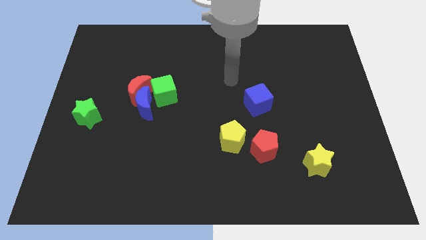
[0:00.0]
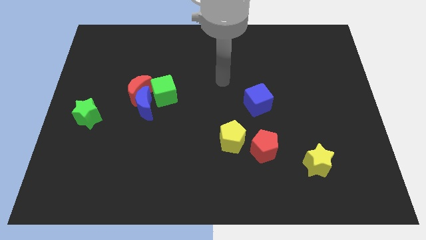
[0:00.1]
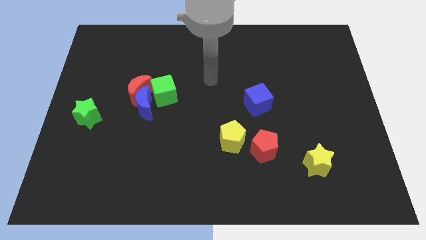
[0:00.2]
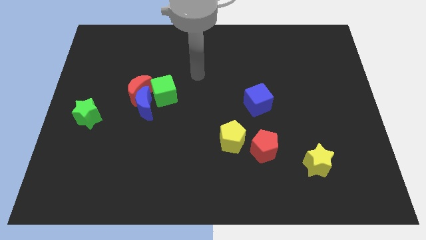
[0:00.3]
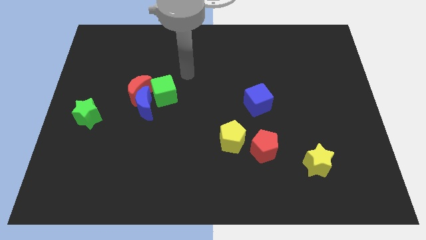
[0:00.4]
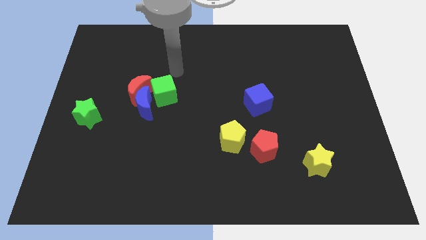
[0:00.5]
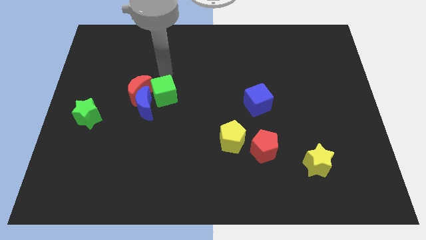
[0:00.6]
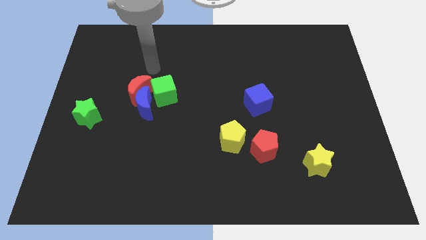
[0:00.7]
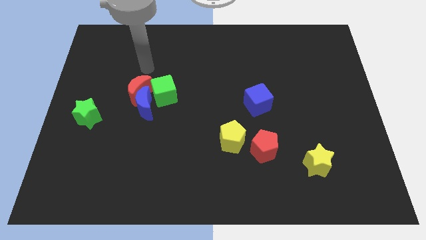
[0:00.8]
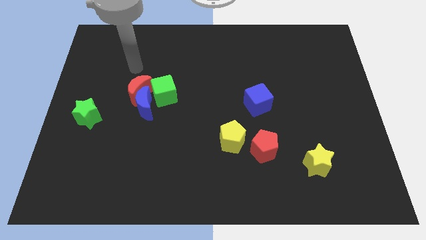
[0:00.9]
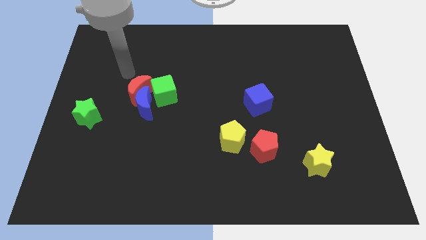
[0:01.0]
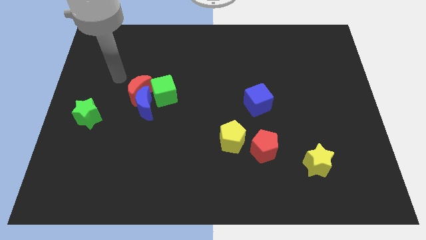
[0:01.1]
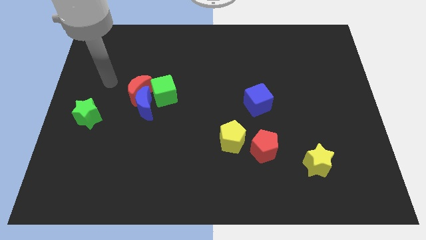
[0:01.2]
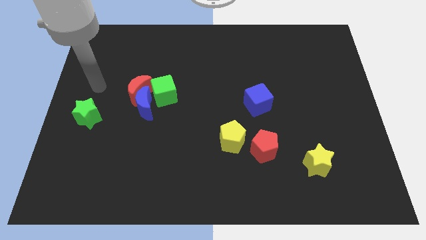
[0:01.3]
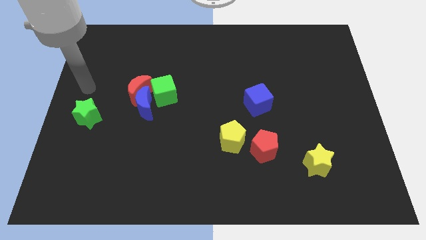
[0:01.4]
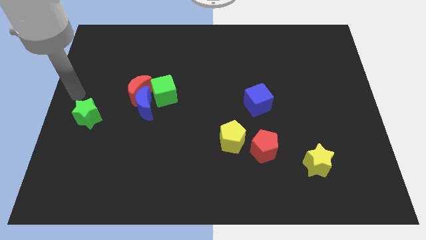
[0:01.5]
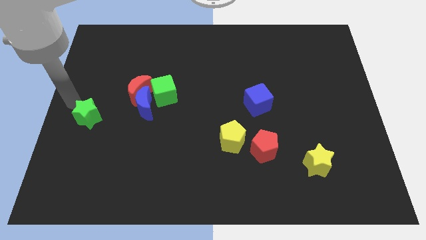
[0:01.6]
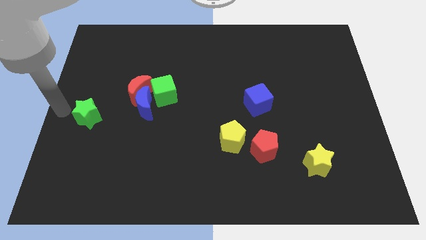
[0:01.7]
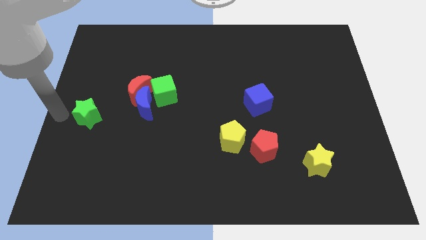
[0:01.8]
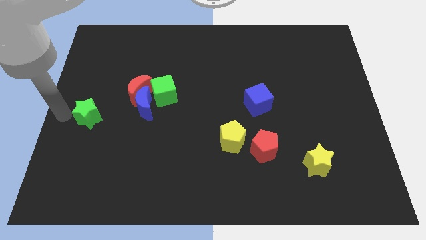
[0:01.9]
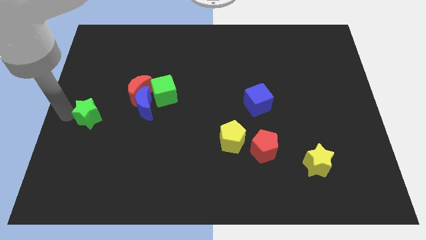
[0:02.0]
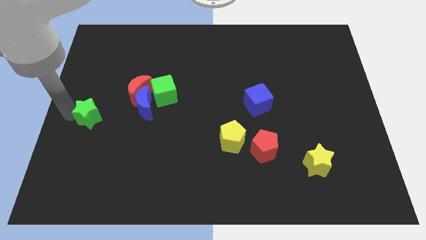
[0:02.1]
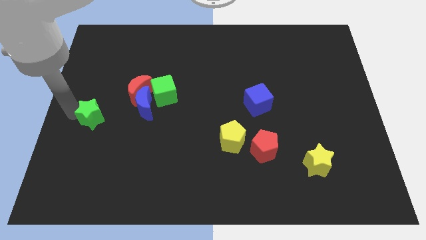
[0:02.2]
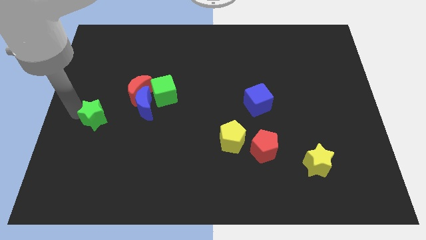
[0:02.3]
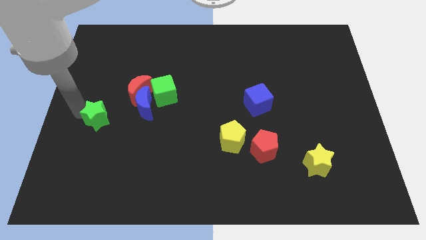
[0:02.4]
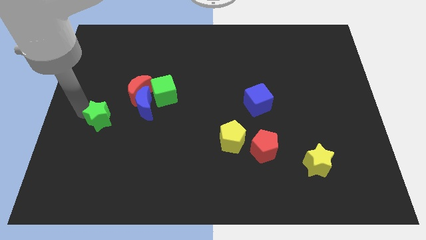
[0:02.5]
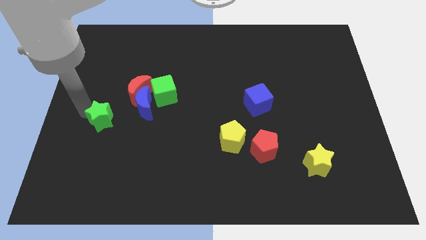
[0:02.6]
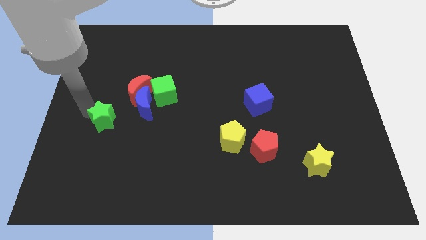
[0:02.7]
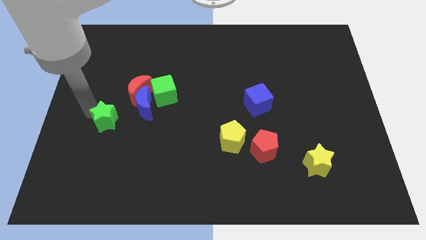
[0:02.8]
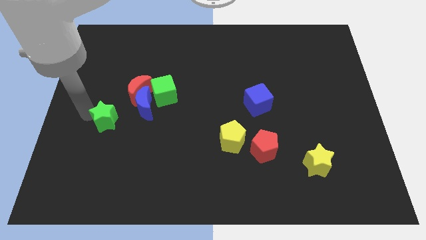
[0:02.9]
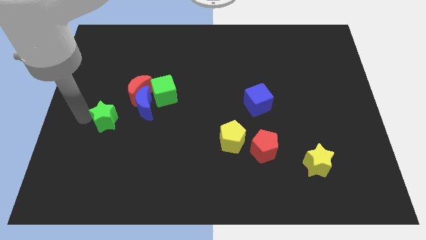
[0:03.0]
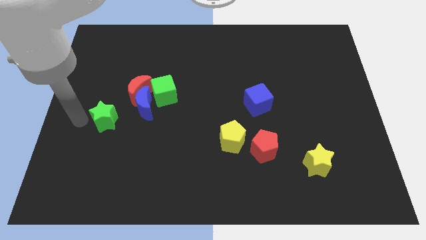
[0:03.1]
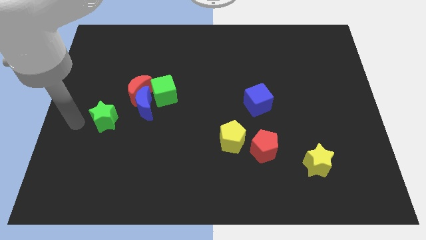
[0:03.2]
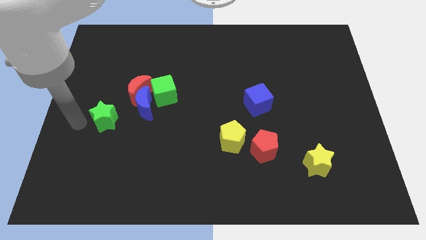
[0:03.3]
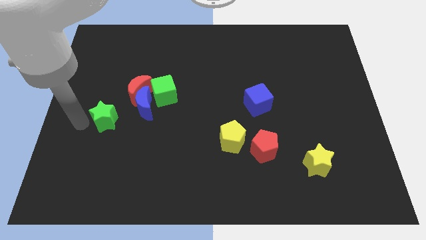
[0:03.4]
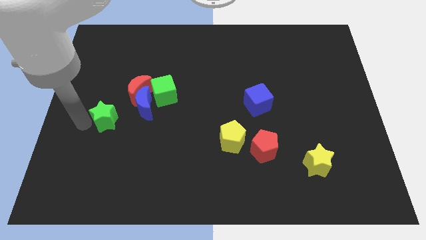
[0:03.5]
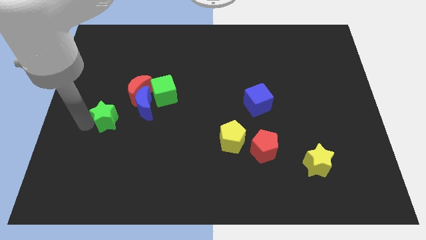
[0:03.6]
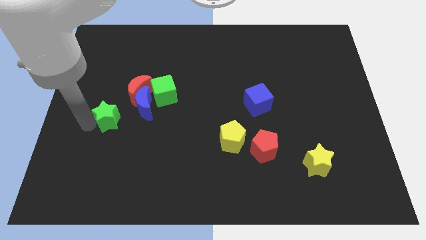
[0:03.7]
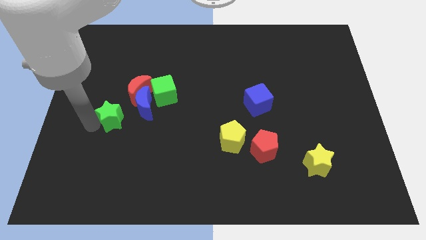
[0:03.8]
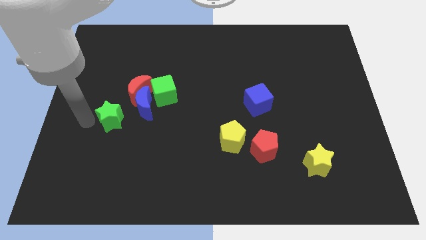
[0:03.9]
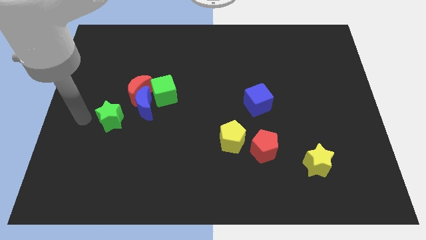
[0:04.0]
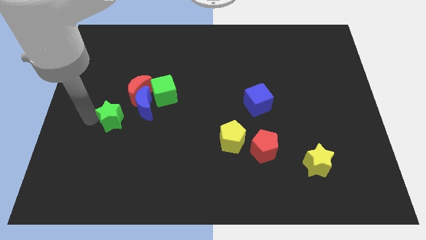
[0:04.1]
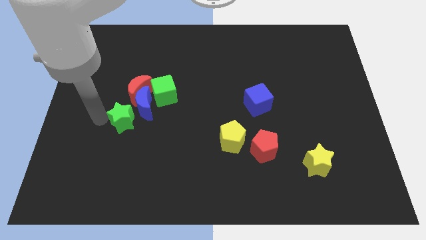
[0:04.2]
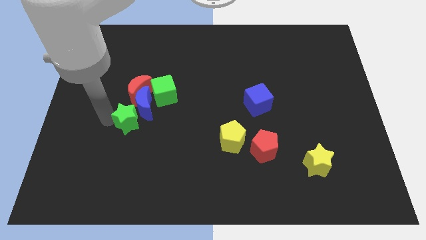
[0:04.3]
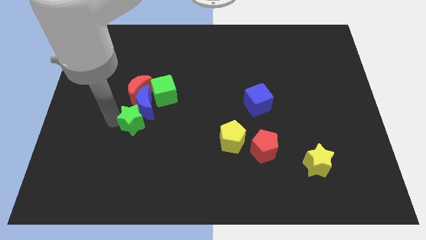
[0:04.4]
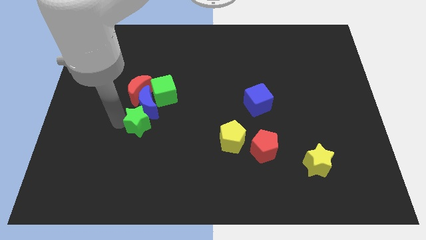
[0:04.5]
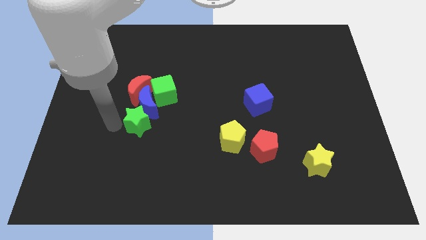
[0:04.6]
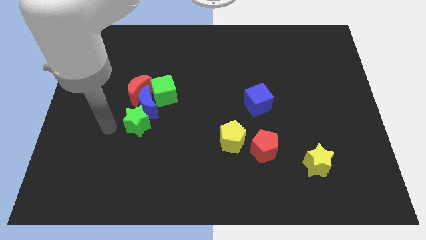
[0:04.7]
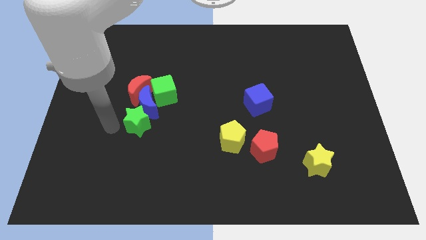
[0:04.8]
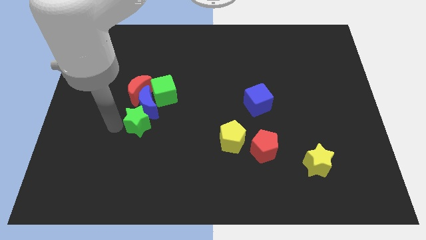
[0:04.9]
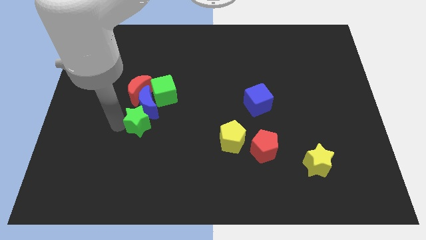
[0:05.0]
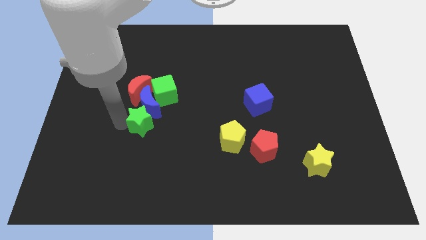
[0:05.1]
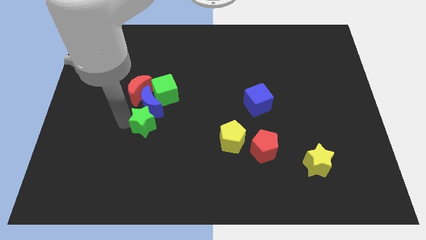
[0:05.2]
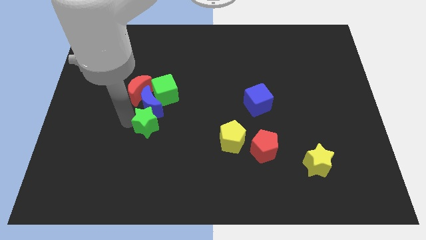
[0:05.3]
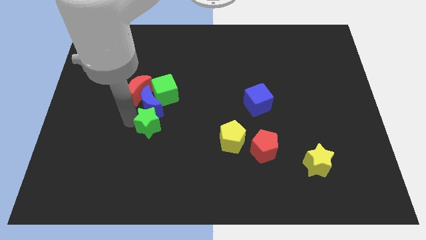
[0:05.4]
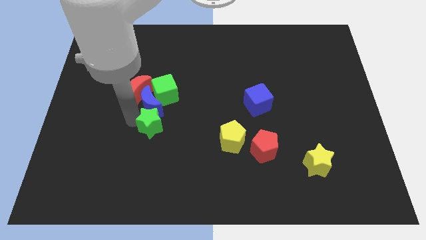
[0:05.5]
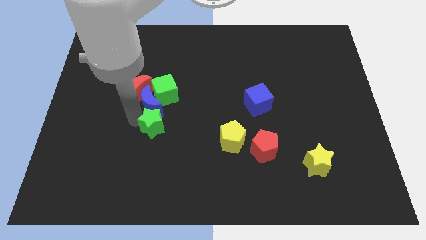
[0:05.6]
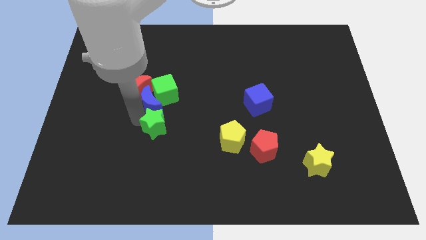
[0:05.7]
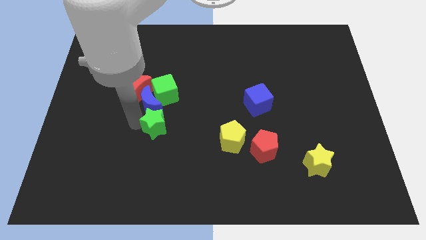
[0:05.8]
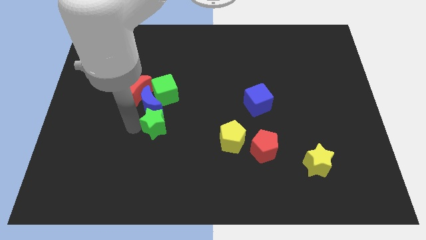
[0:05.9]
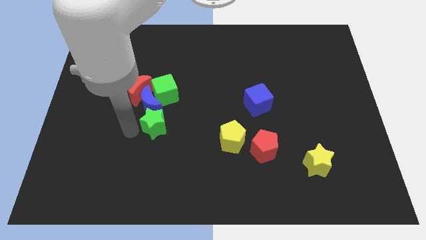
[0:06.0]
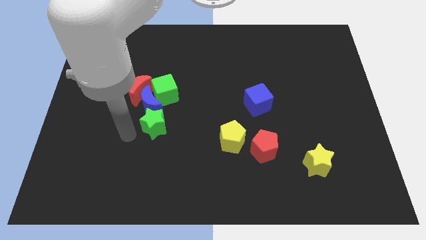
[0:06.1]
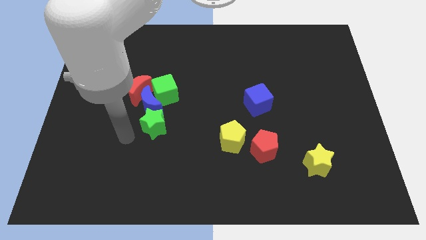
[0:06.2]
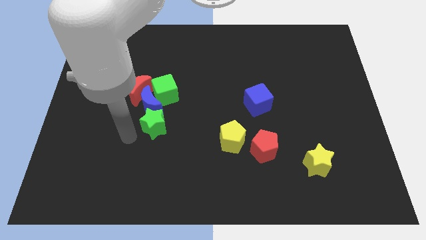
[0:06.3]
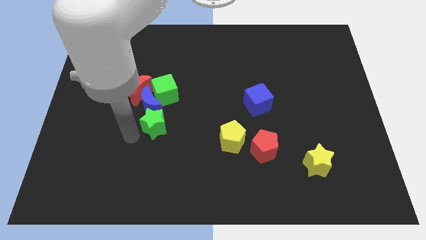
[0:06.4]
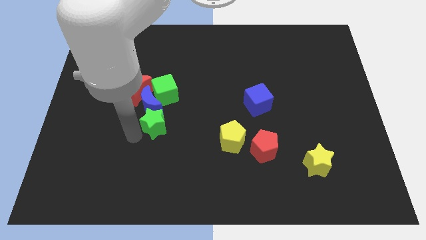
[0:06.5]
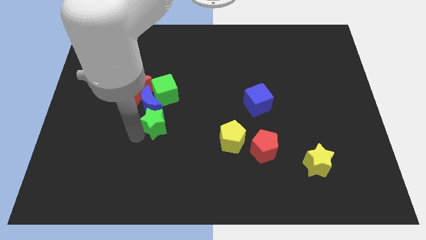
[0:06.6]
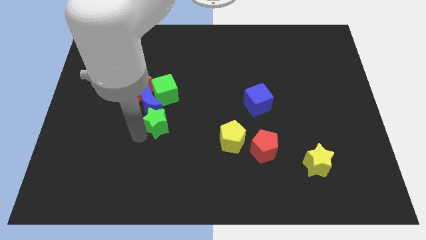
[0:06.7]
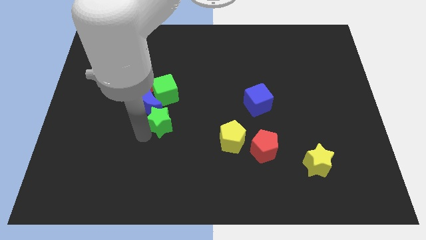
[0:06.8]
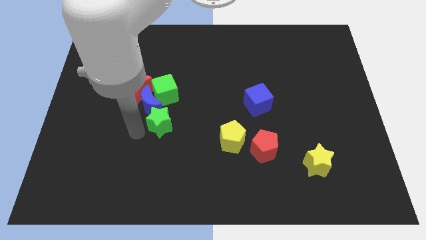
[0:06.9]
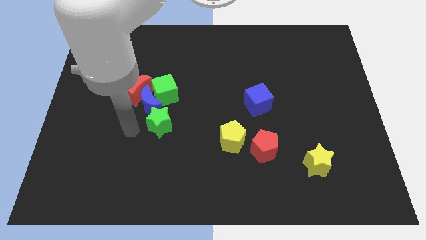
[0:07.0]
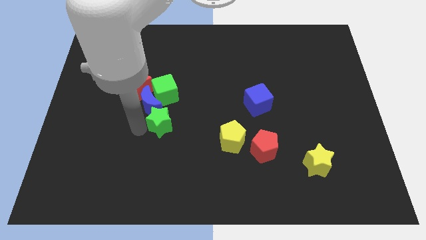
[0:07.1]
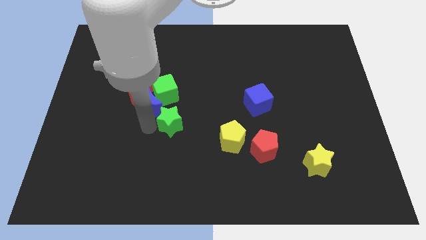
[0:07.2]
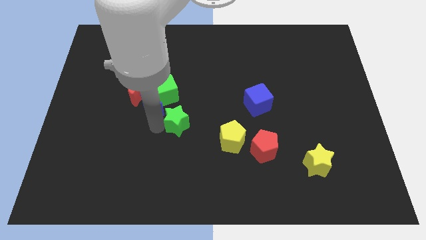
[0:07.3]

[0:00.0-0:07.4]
push the green star to the right

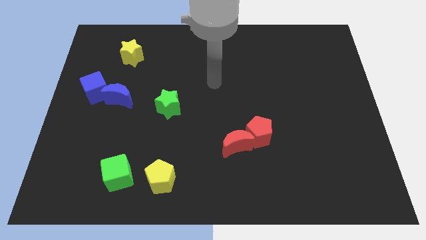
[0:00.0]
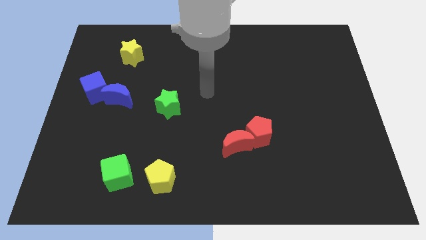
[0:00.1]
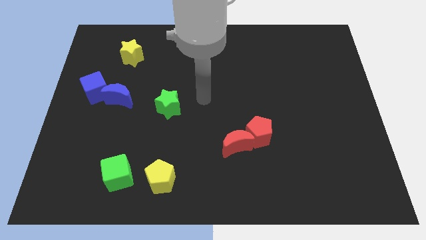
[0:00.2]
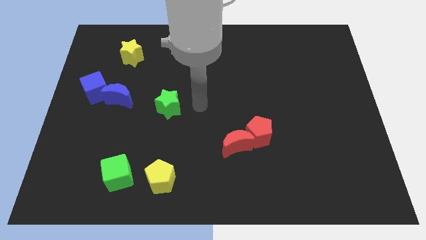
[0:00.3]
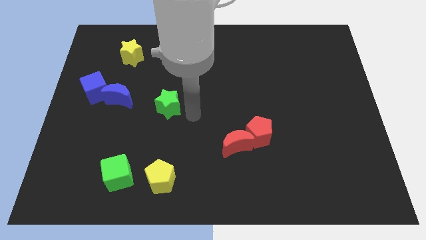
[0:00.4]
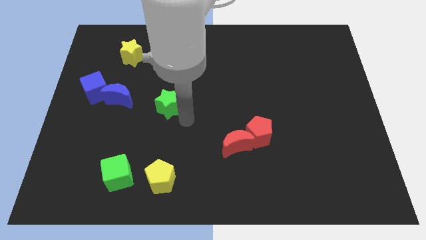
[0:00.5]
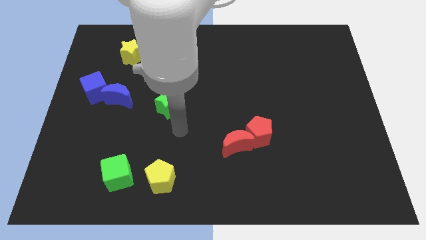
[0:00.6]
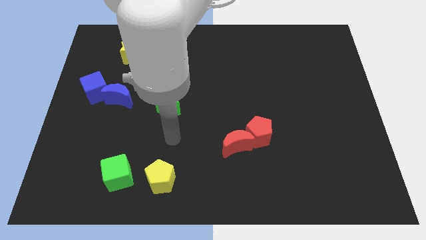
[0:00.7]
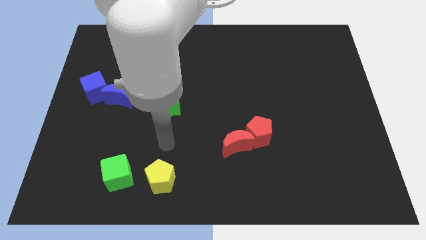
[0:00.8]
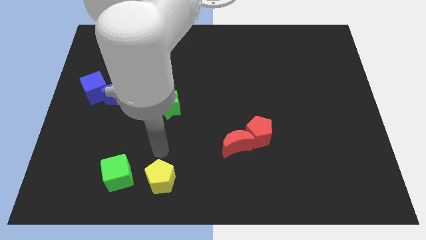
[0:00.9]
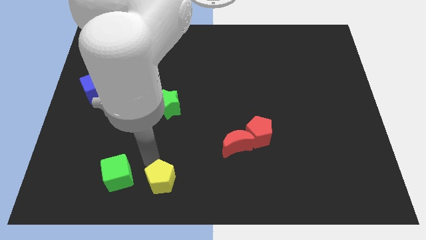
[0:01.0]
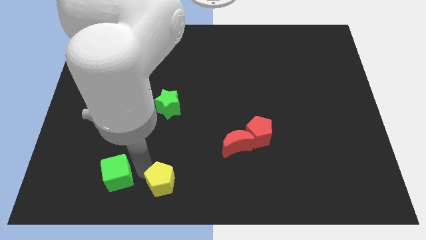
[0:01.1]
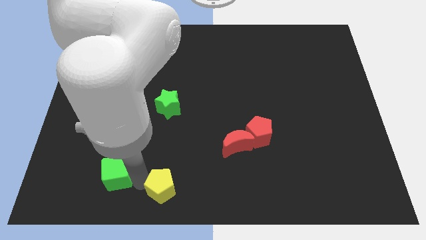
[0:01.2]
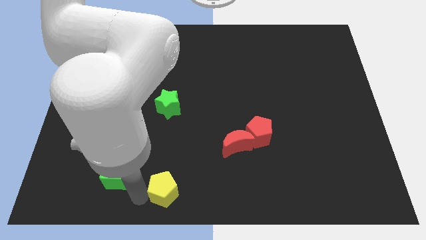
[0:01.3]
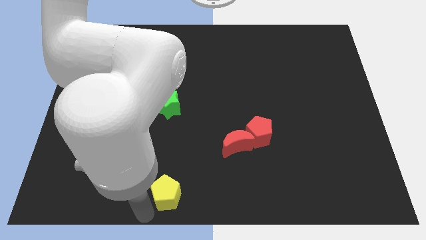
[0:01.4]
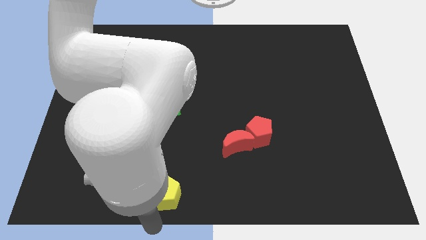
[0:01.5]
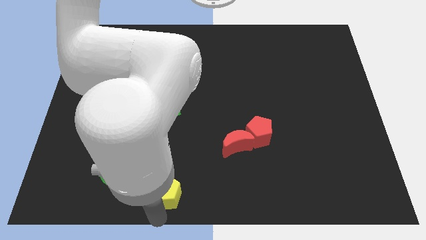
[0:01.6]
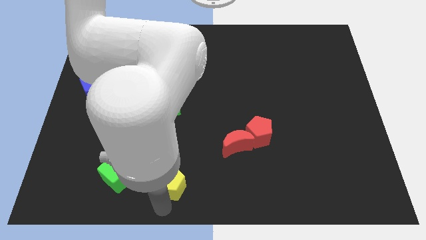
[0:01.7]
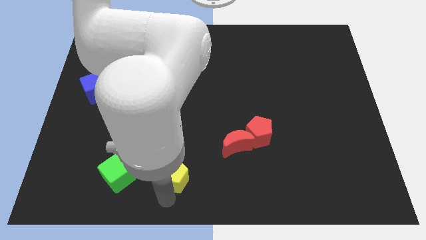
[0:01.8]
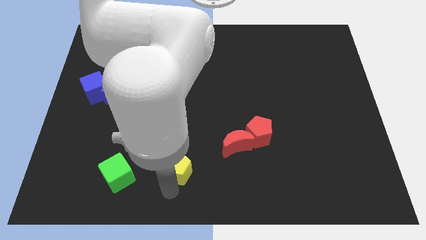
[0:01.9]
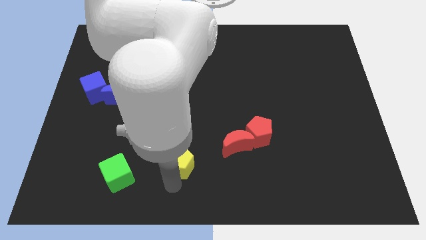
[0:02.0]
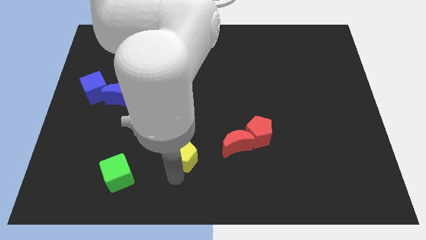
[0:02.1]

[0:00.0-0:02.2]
slide the yellow pentagon slightly upwards and then right
